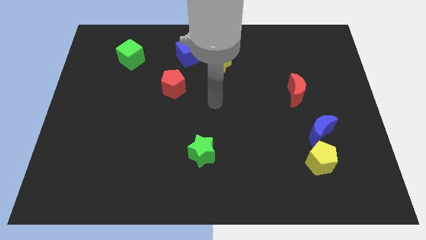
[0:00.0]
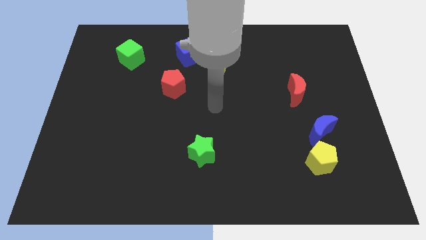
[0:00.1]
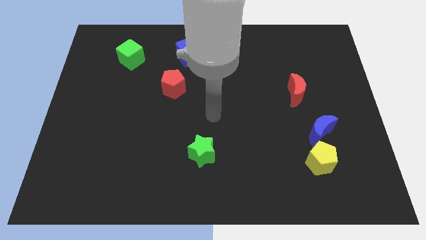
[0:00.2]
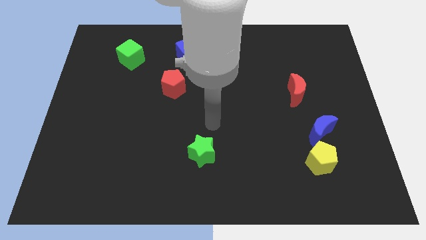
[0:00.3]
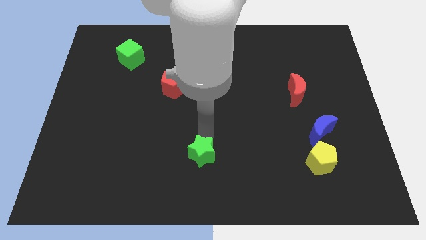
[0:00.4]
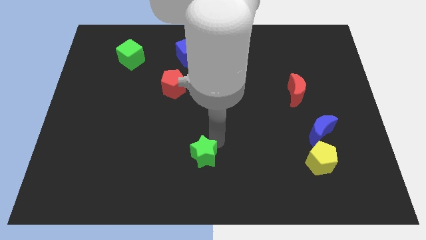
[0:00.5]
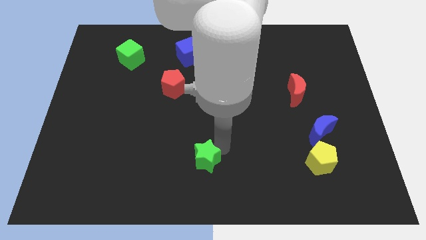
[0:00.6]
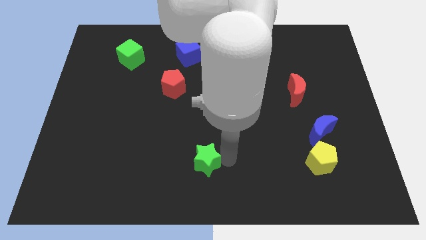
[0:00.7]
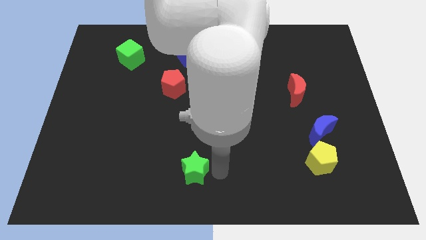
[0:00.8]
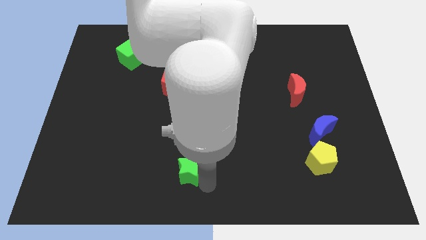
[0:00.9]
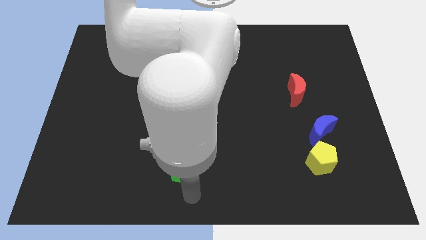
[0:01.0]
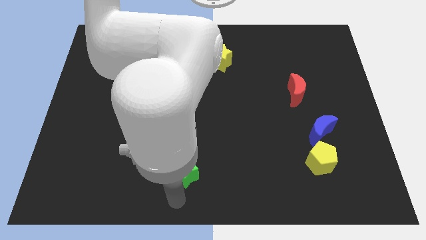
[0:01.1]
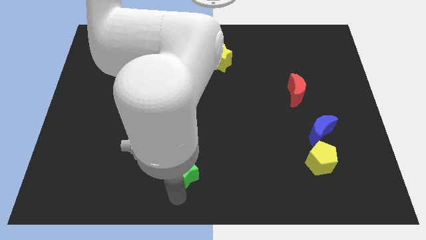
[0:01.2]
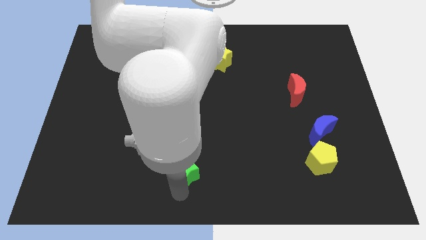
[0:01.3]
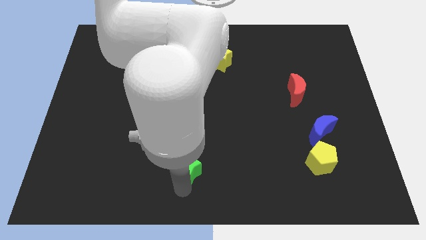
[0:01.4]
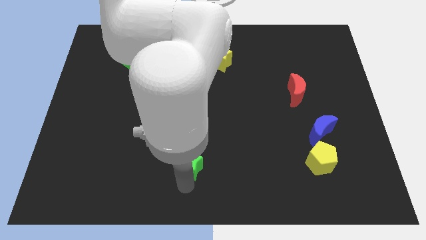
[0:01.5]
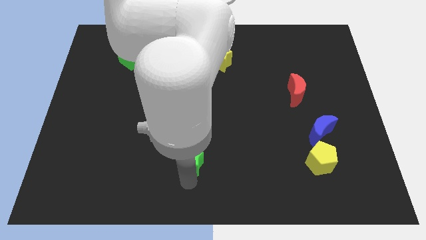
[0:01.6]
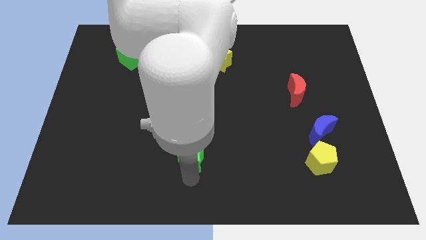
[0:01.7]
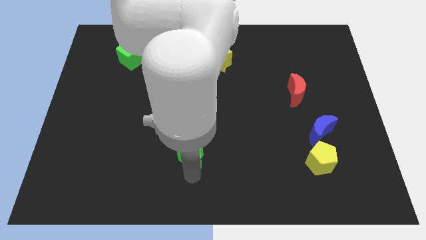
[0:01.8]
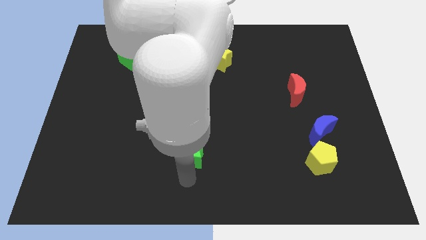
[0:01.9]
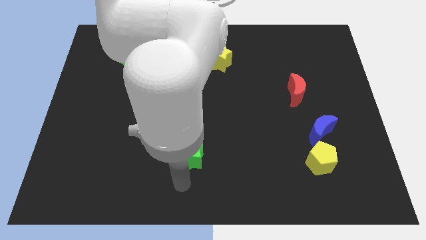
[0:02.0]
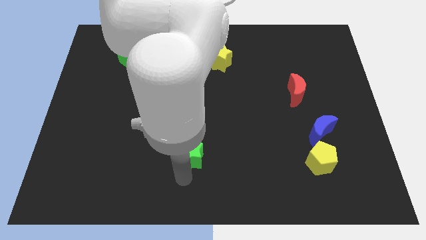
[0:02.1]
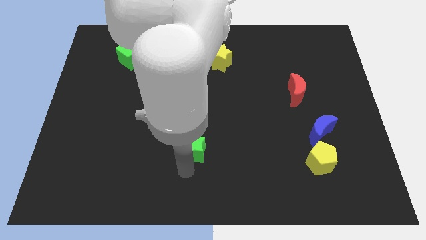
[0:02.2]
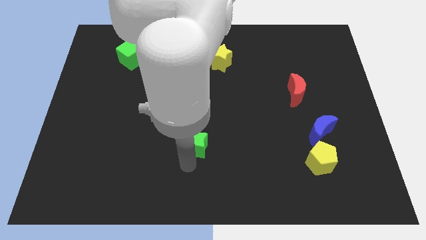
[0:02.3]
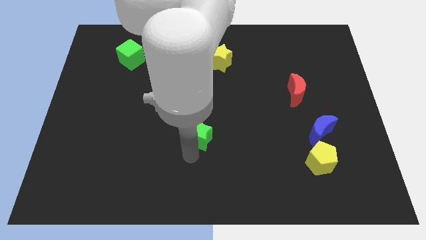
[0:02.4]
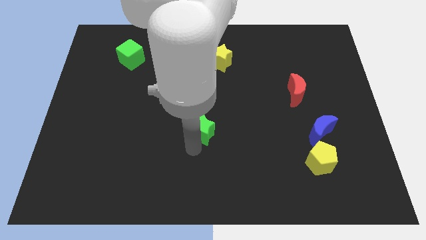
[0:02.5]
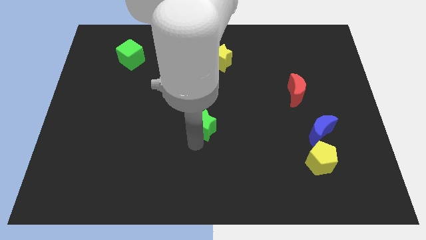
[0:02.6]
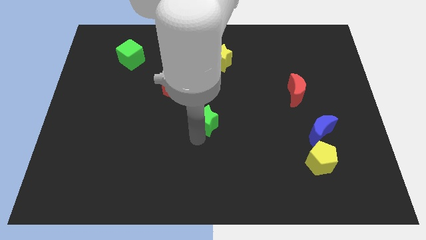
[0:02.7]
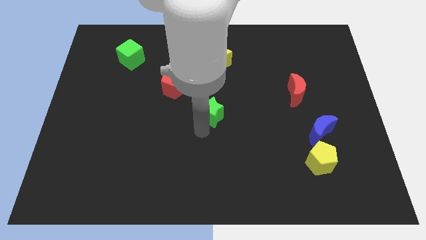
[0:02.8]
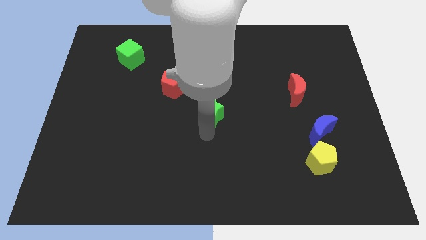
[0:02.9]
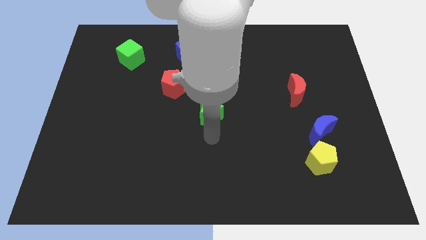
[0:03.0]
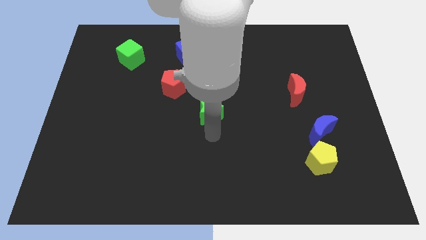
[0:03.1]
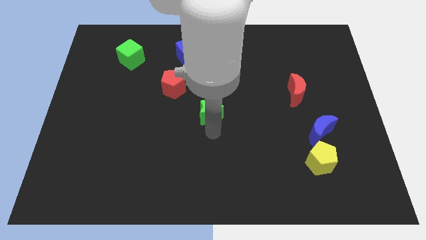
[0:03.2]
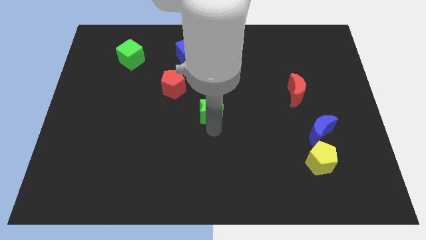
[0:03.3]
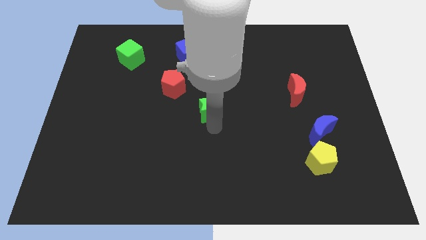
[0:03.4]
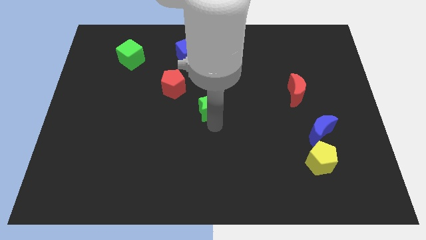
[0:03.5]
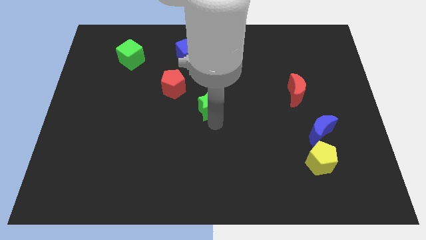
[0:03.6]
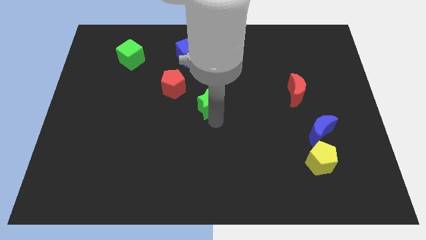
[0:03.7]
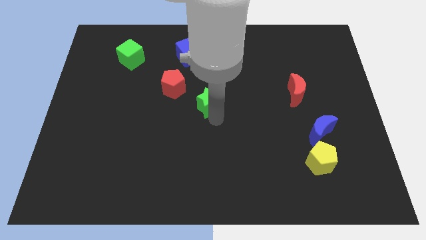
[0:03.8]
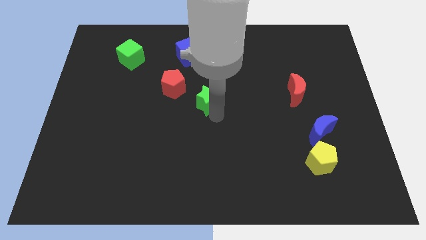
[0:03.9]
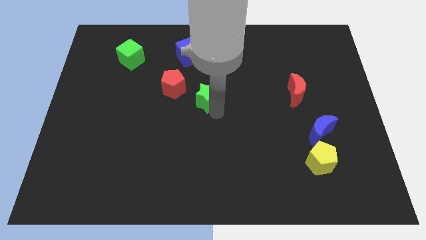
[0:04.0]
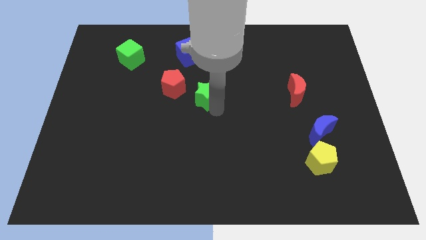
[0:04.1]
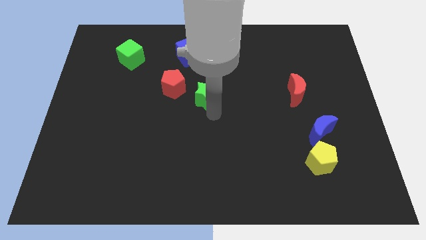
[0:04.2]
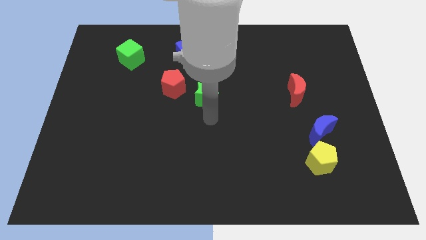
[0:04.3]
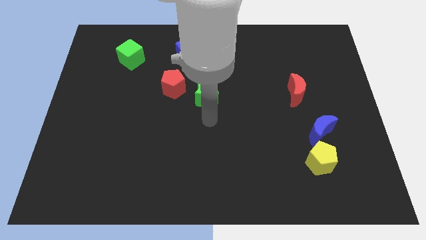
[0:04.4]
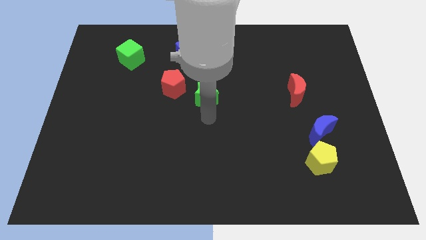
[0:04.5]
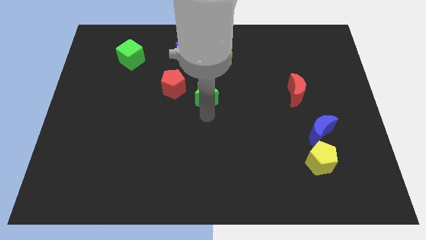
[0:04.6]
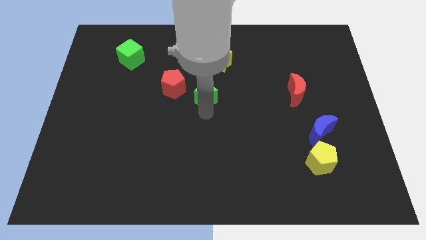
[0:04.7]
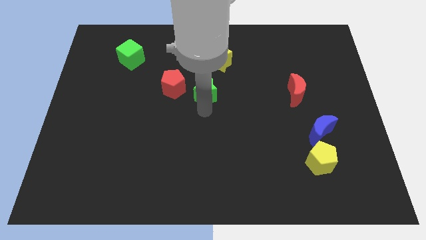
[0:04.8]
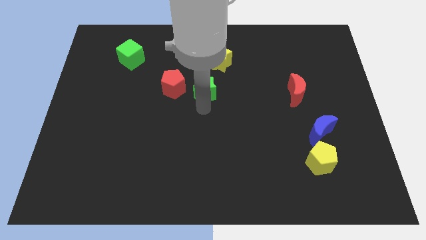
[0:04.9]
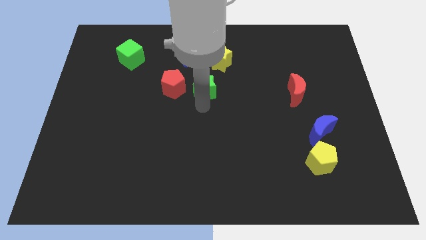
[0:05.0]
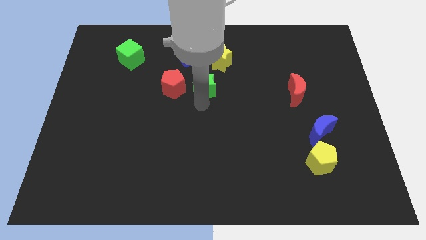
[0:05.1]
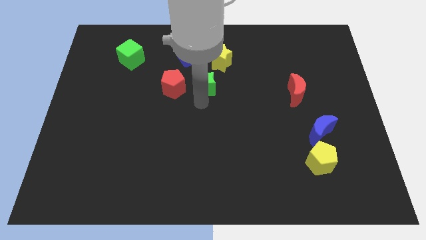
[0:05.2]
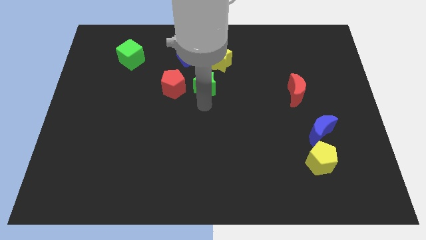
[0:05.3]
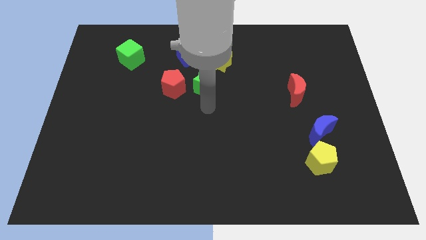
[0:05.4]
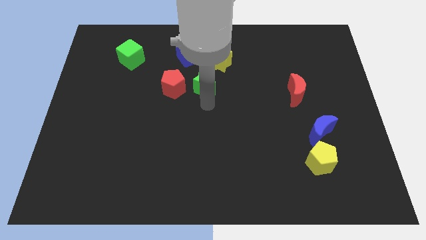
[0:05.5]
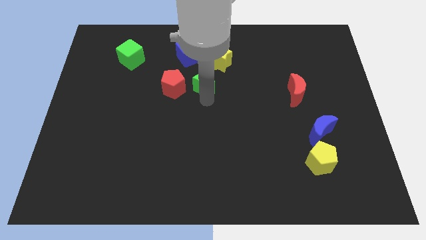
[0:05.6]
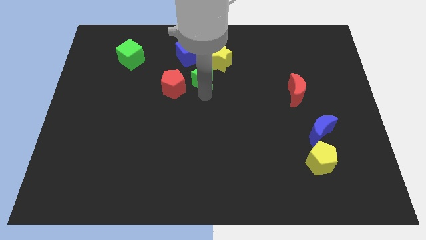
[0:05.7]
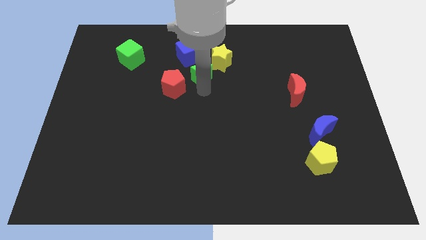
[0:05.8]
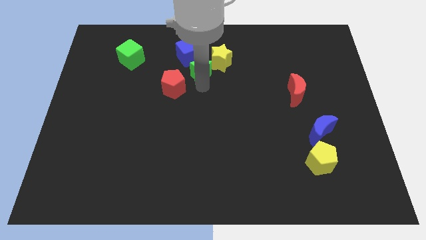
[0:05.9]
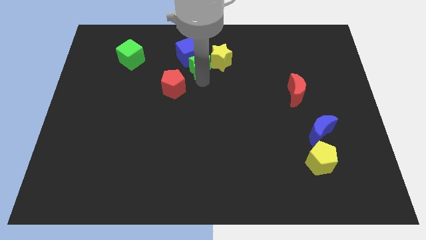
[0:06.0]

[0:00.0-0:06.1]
put the green star close to the blue cube

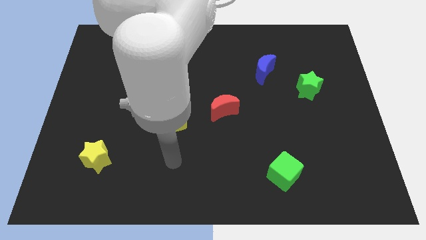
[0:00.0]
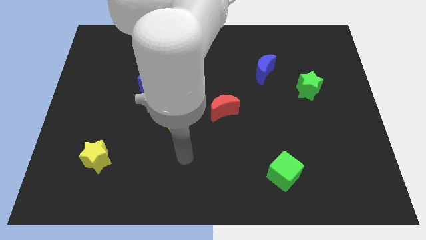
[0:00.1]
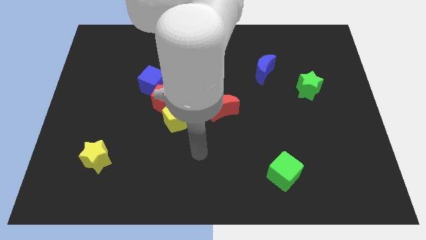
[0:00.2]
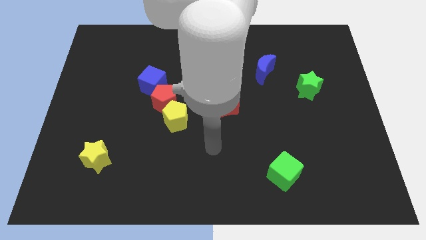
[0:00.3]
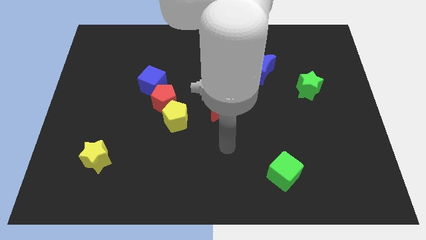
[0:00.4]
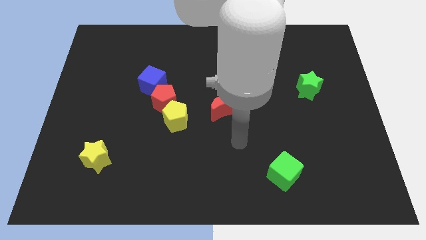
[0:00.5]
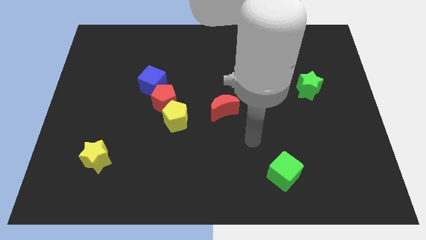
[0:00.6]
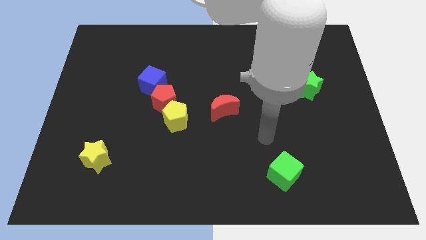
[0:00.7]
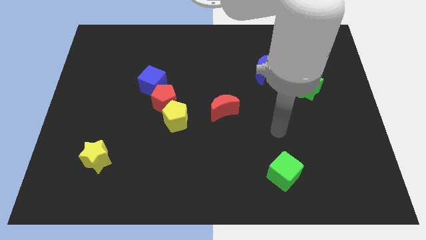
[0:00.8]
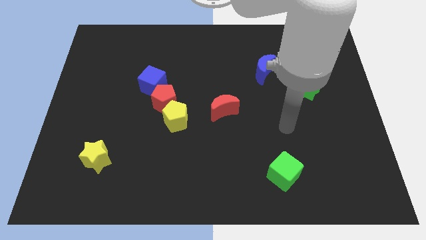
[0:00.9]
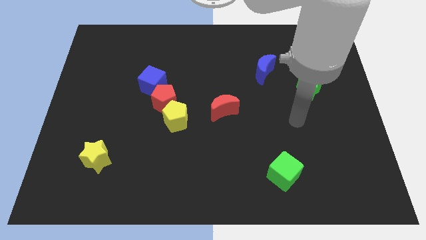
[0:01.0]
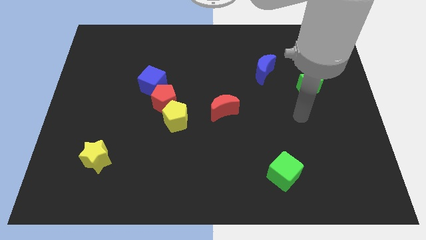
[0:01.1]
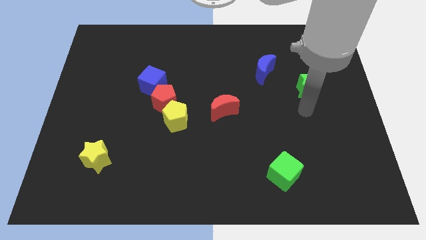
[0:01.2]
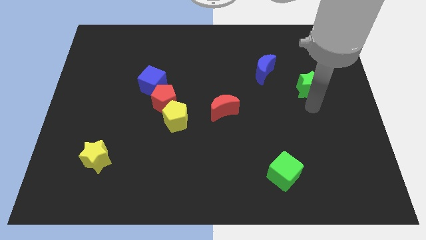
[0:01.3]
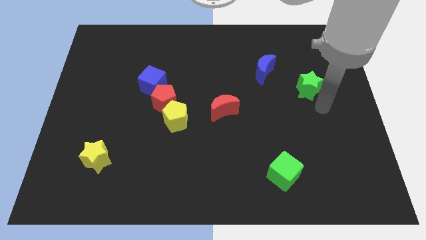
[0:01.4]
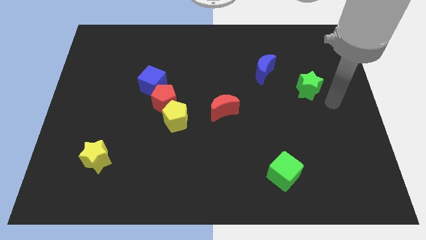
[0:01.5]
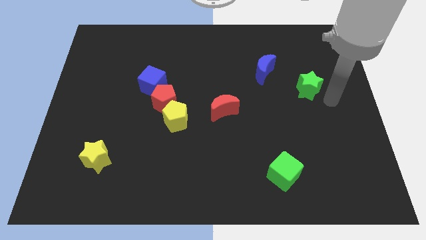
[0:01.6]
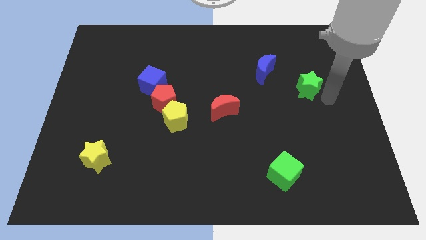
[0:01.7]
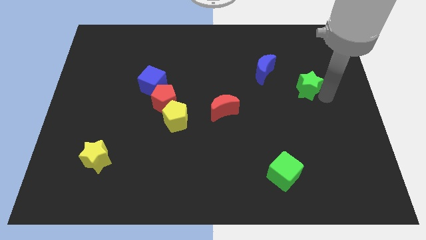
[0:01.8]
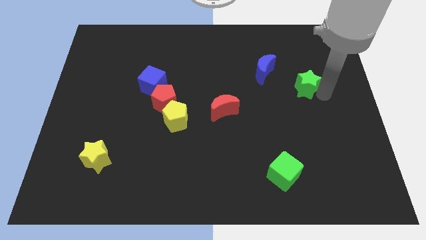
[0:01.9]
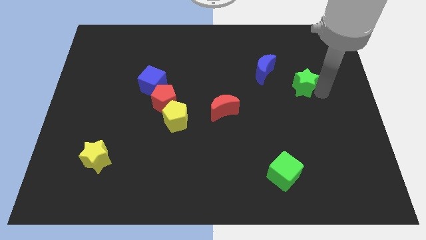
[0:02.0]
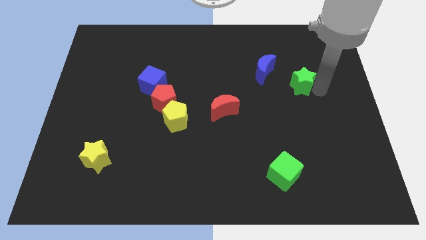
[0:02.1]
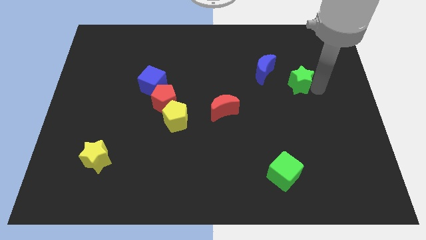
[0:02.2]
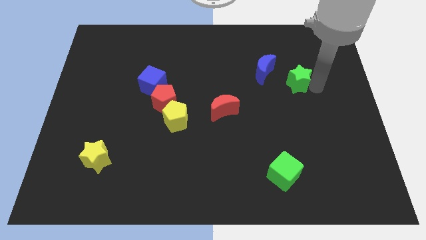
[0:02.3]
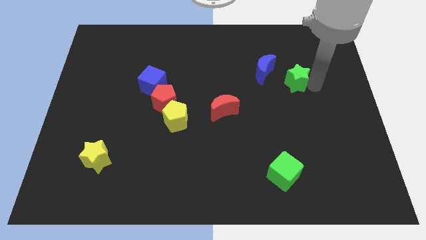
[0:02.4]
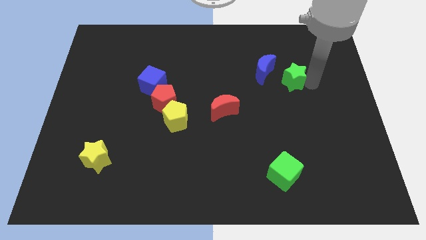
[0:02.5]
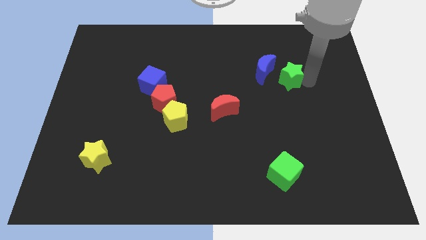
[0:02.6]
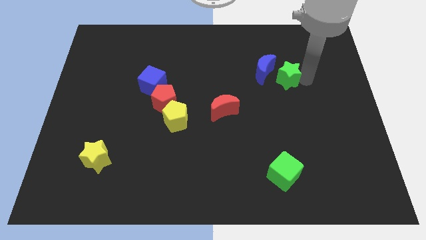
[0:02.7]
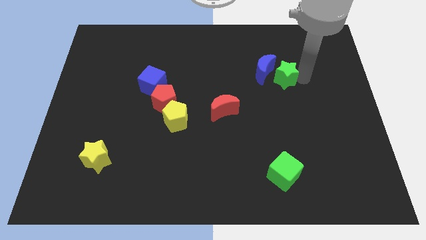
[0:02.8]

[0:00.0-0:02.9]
slide the green star to the blue moon
